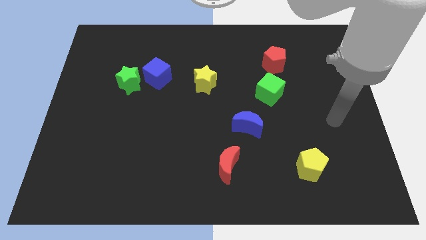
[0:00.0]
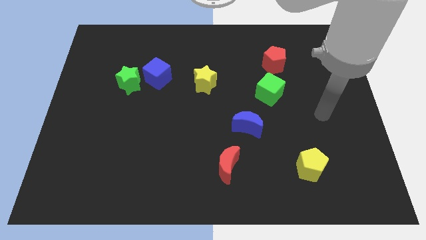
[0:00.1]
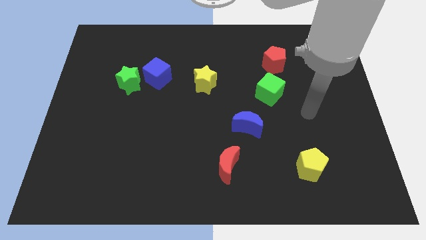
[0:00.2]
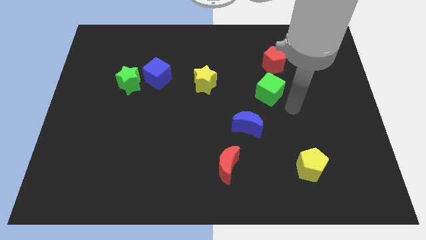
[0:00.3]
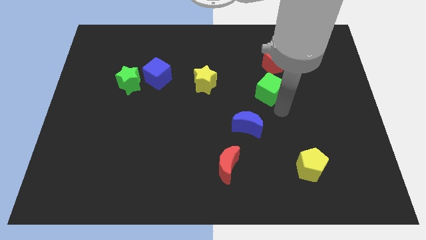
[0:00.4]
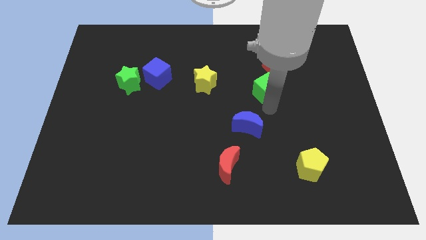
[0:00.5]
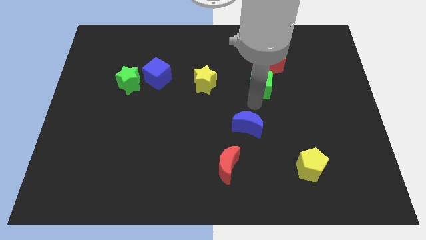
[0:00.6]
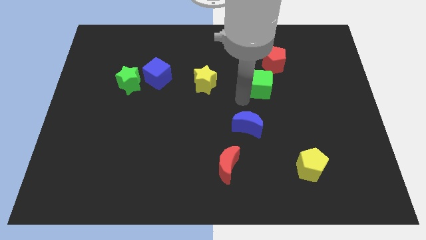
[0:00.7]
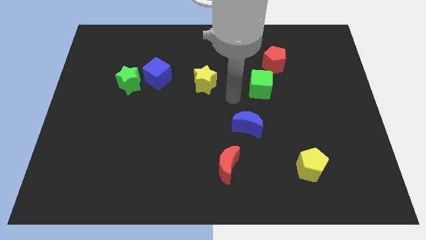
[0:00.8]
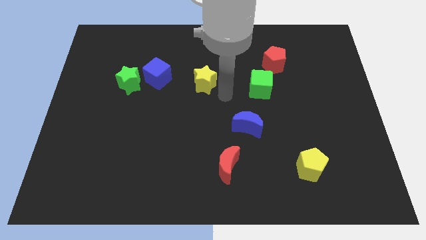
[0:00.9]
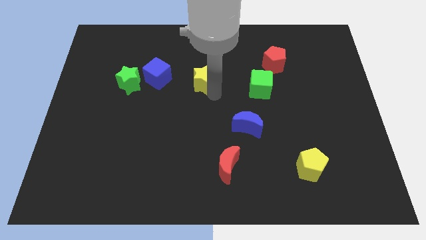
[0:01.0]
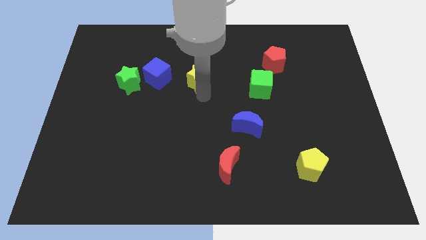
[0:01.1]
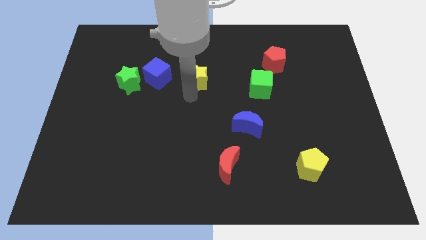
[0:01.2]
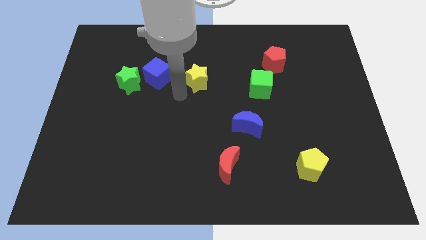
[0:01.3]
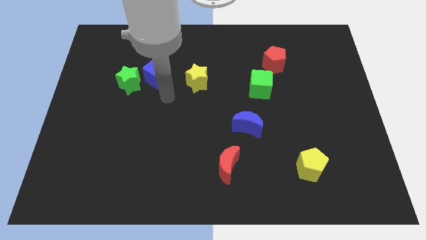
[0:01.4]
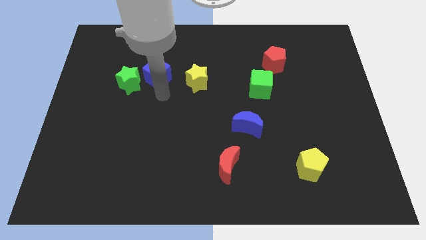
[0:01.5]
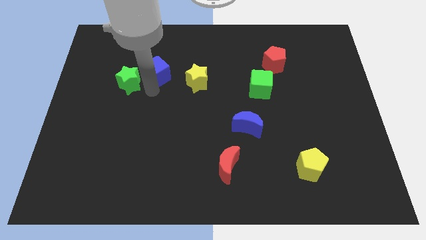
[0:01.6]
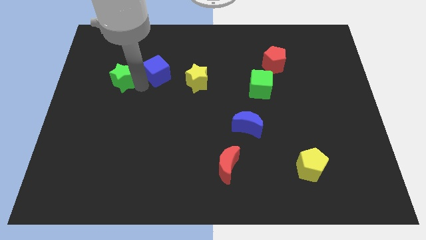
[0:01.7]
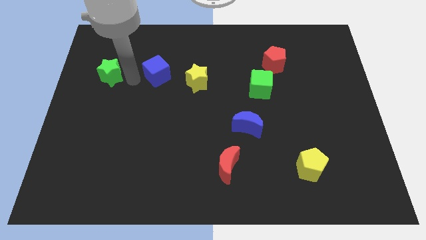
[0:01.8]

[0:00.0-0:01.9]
separate the blue cube from the green star

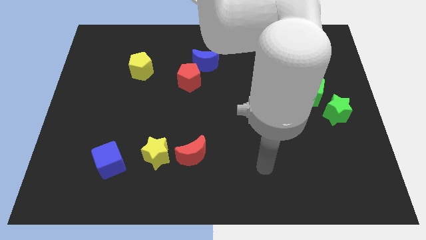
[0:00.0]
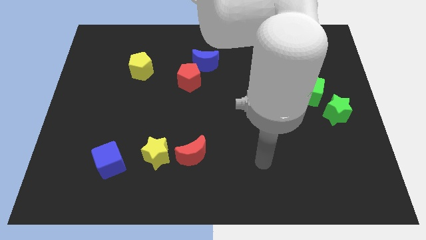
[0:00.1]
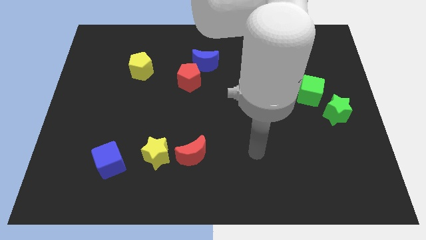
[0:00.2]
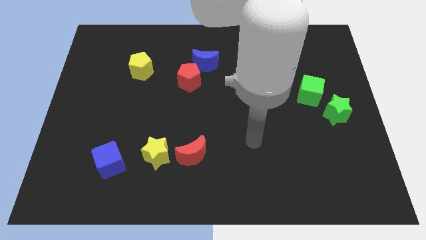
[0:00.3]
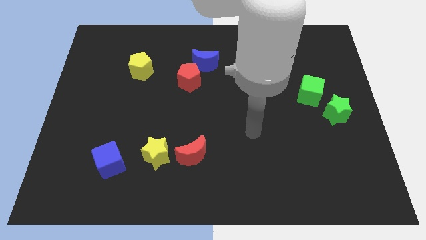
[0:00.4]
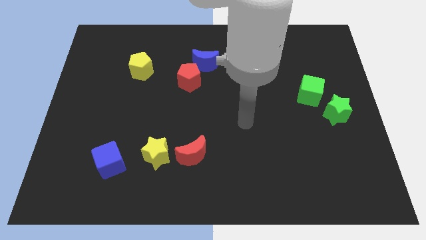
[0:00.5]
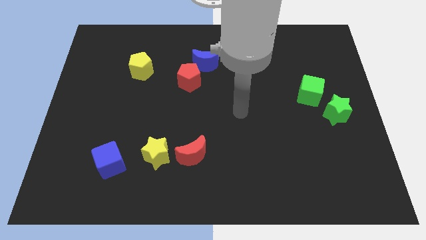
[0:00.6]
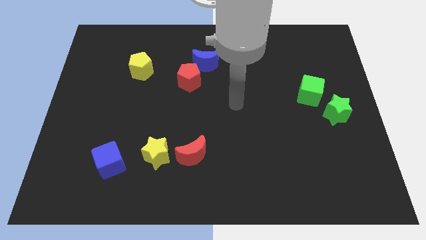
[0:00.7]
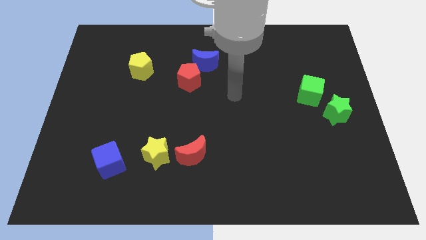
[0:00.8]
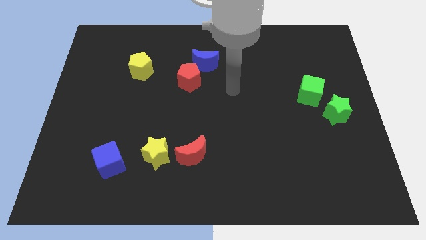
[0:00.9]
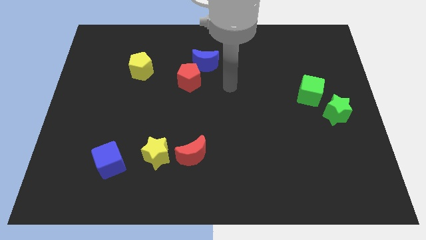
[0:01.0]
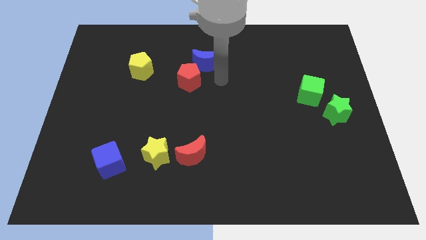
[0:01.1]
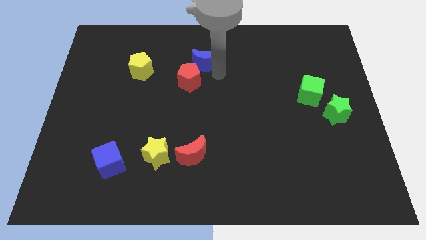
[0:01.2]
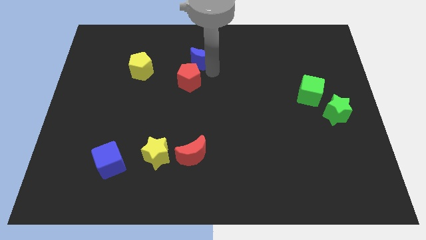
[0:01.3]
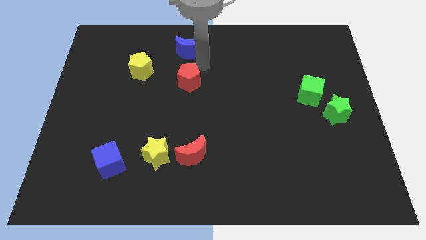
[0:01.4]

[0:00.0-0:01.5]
separate the red pentagon from the blue moon

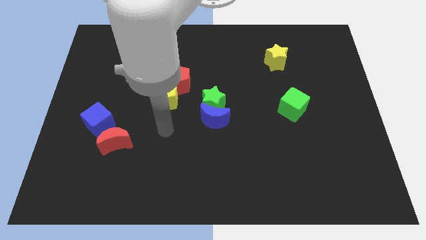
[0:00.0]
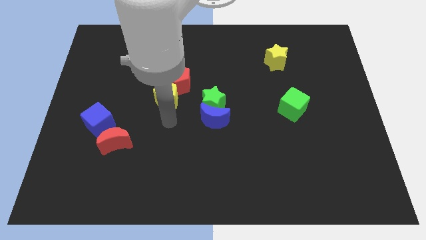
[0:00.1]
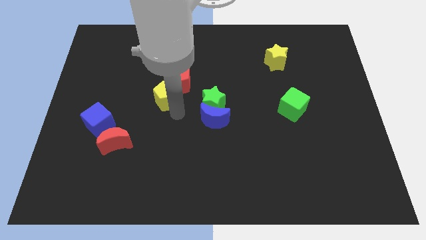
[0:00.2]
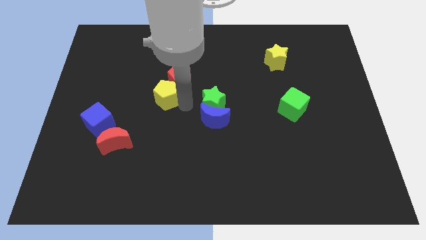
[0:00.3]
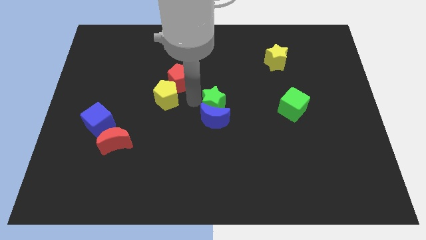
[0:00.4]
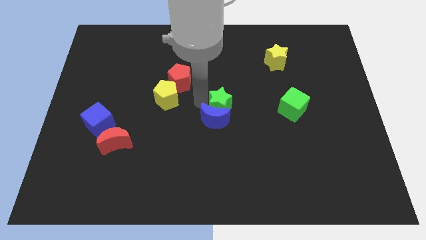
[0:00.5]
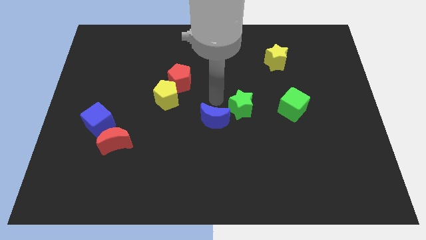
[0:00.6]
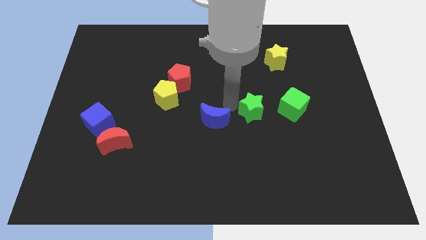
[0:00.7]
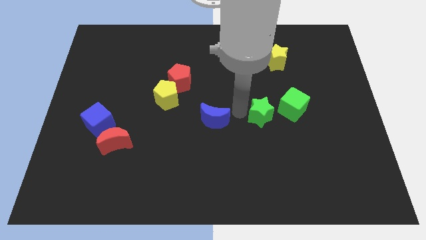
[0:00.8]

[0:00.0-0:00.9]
separate the blue moon from the green star

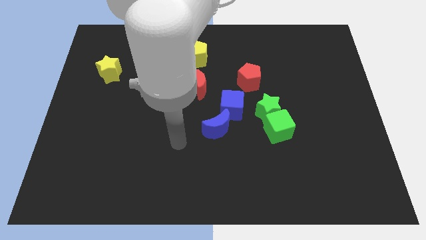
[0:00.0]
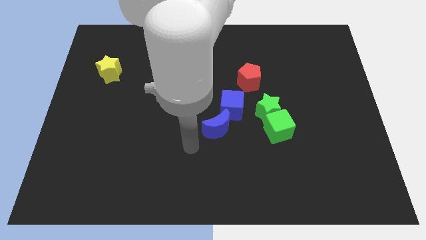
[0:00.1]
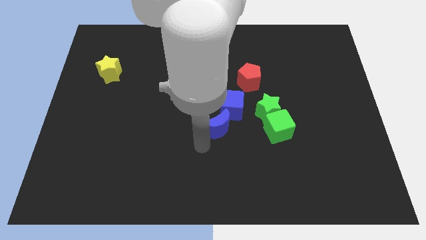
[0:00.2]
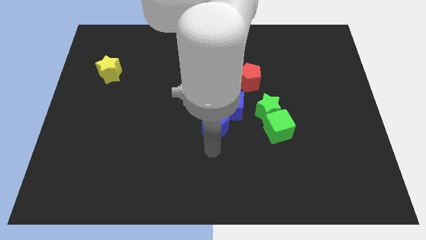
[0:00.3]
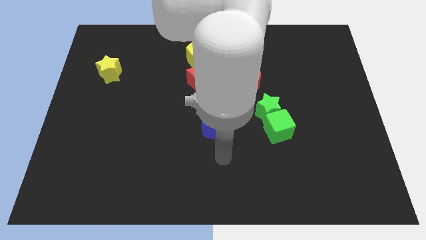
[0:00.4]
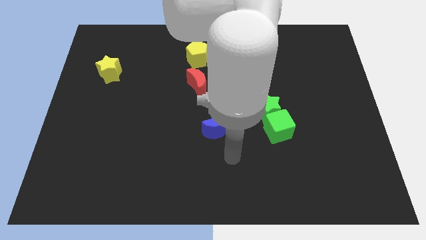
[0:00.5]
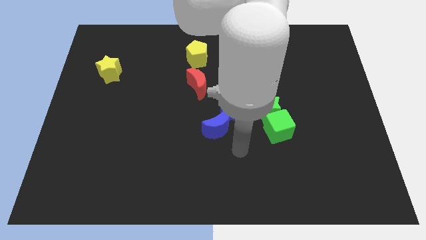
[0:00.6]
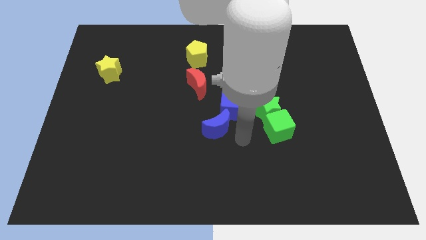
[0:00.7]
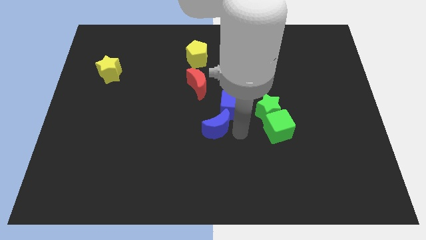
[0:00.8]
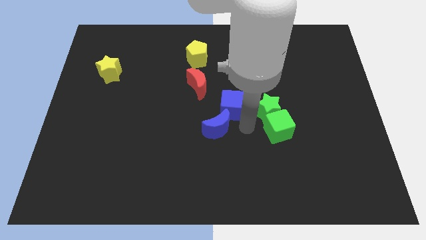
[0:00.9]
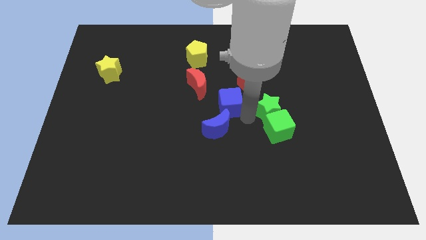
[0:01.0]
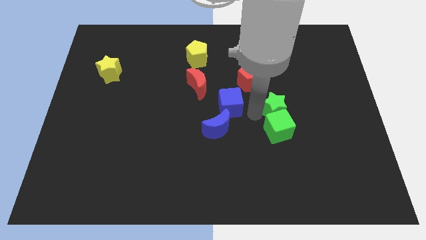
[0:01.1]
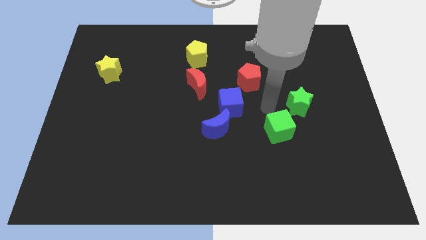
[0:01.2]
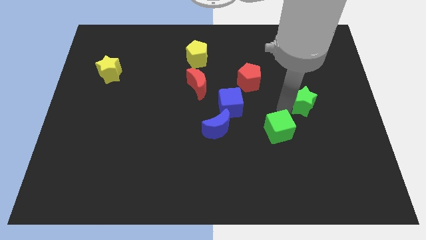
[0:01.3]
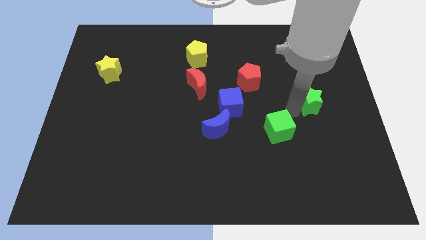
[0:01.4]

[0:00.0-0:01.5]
pull the green cube apart from the green star

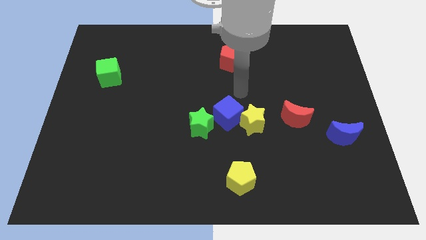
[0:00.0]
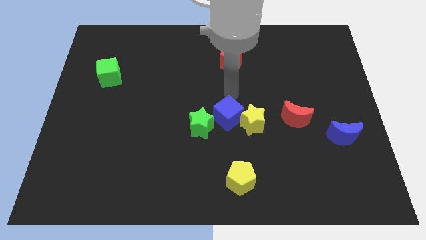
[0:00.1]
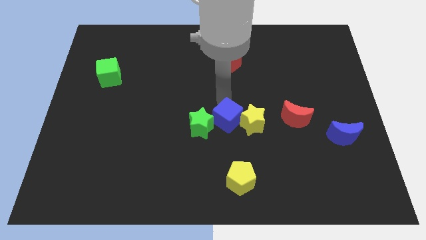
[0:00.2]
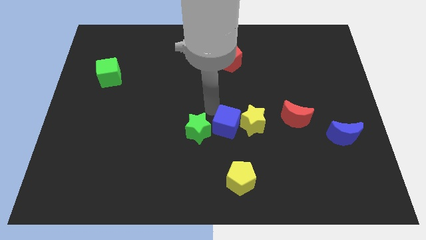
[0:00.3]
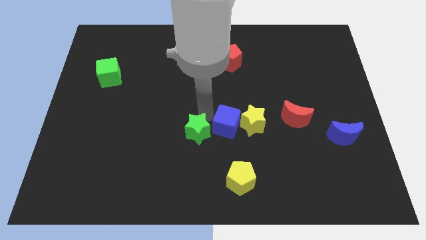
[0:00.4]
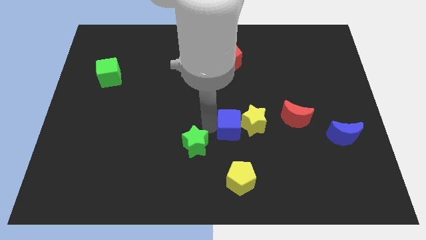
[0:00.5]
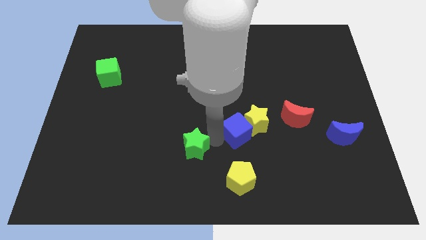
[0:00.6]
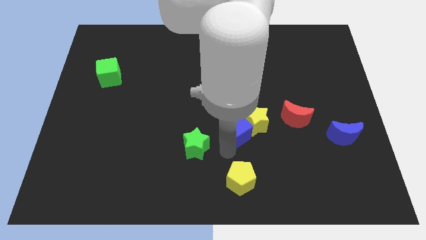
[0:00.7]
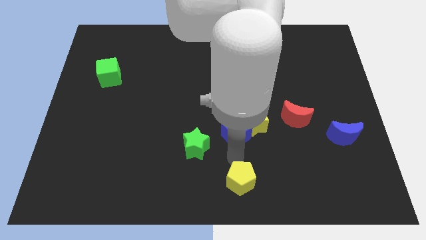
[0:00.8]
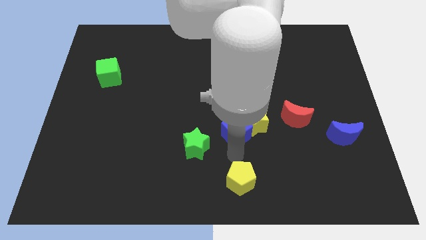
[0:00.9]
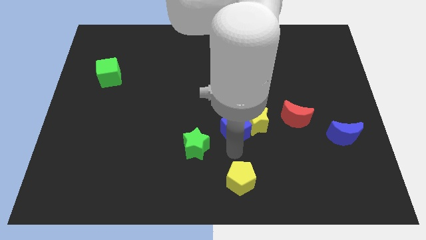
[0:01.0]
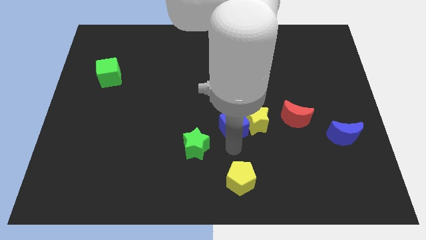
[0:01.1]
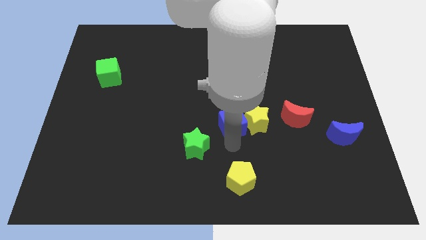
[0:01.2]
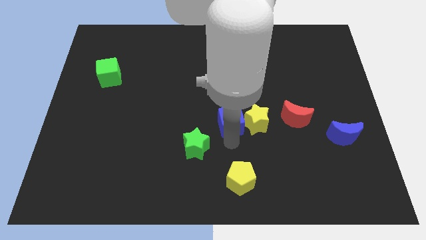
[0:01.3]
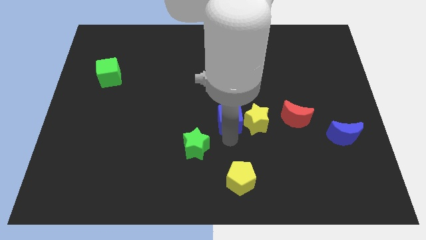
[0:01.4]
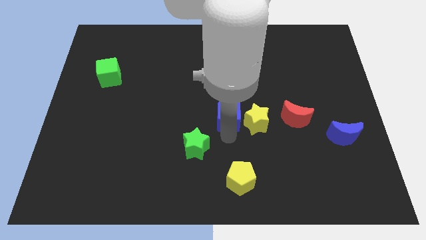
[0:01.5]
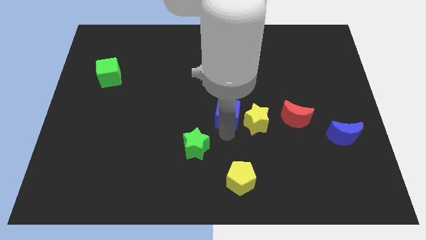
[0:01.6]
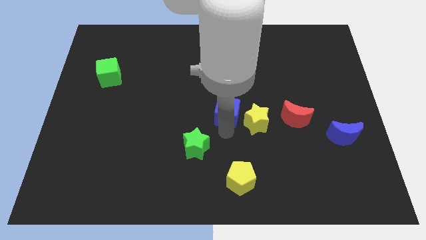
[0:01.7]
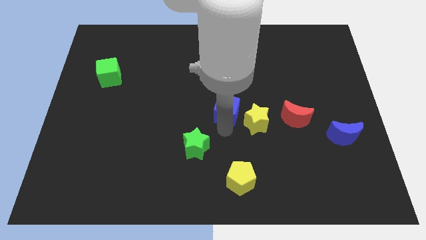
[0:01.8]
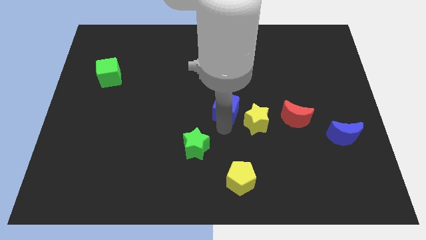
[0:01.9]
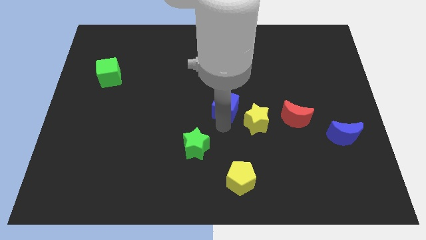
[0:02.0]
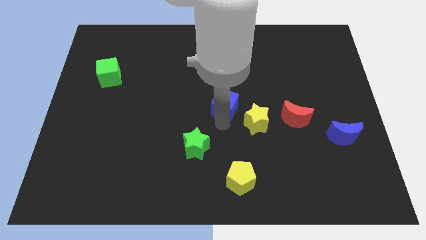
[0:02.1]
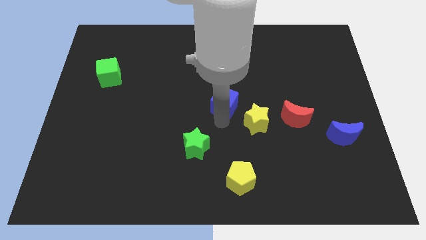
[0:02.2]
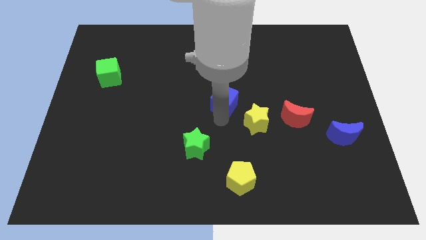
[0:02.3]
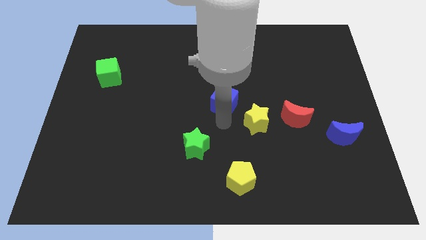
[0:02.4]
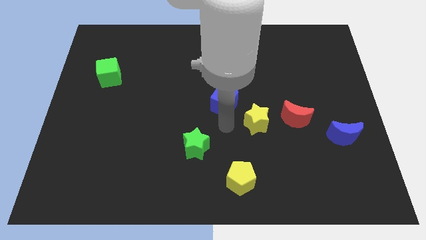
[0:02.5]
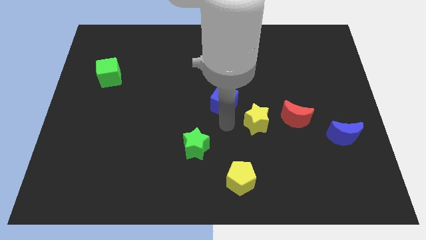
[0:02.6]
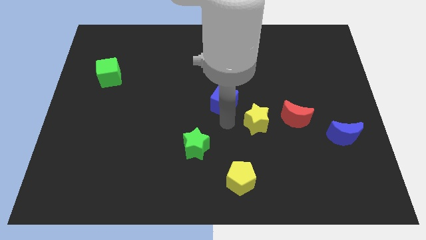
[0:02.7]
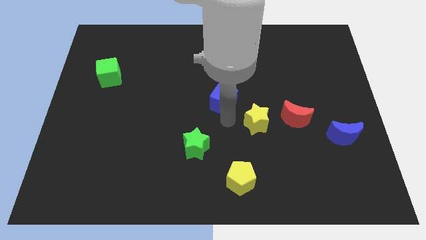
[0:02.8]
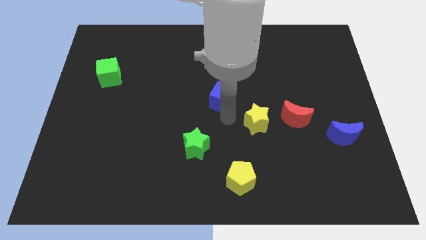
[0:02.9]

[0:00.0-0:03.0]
pull the blue cube apart from the yellow star and green star

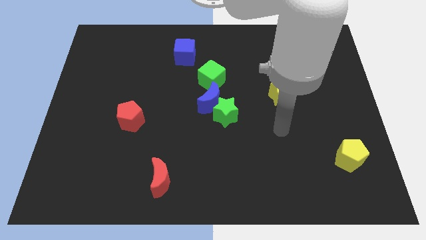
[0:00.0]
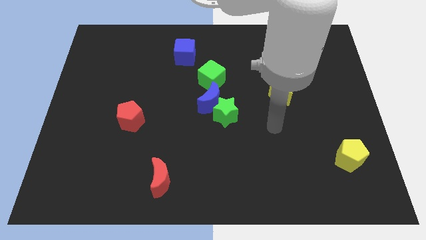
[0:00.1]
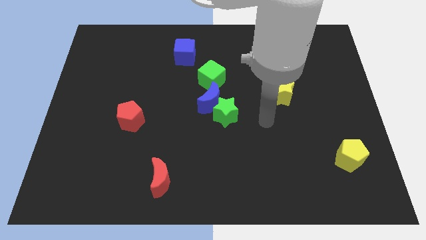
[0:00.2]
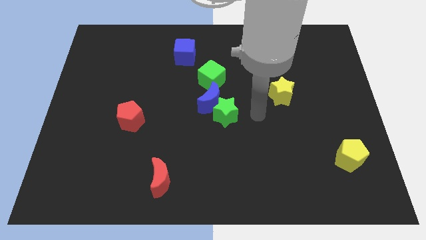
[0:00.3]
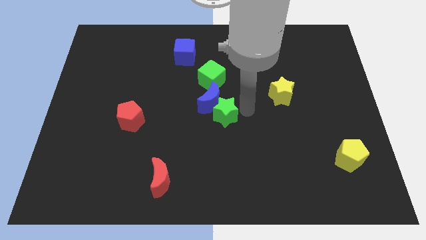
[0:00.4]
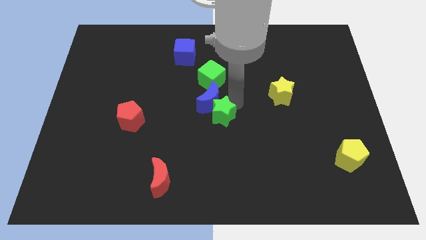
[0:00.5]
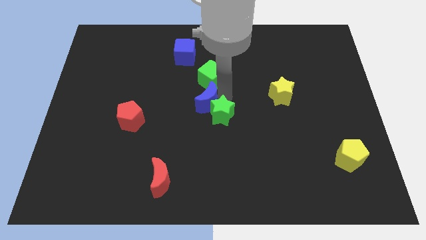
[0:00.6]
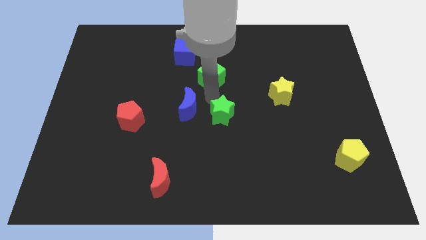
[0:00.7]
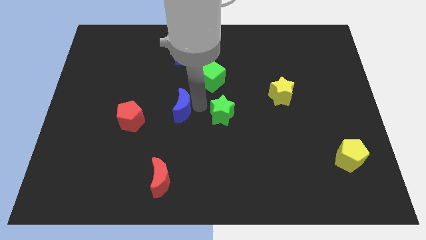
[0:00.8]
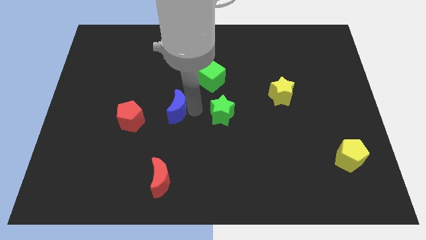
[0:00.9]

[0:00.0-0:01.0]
move the green star away from the blue moon
